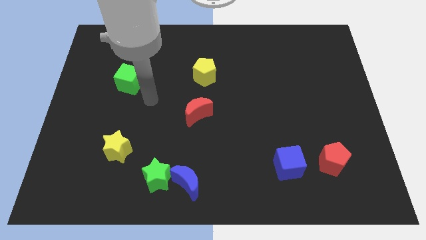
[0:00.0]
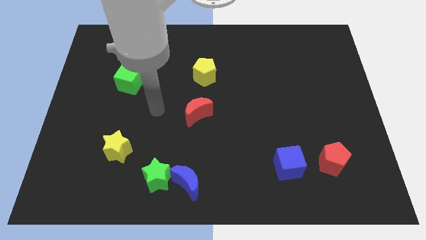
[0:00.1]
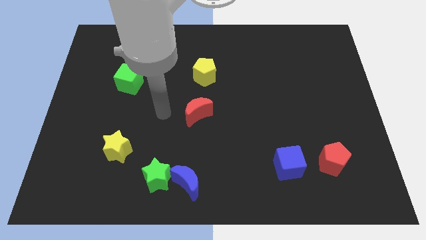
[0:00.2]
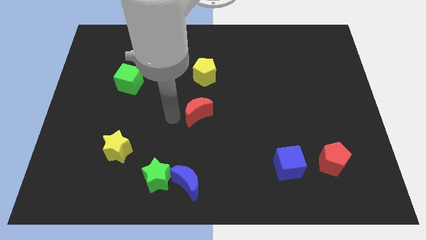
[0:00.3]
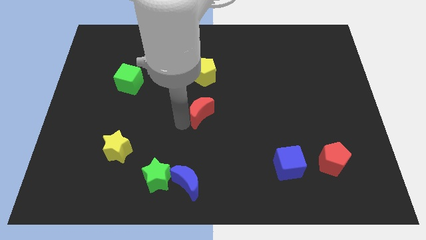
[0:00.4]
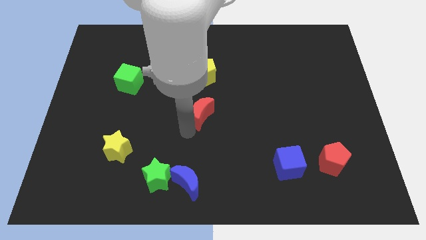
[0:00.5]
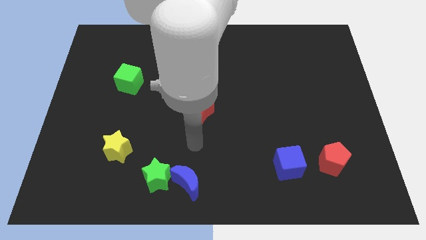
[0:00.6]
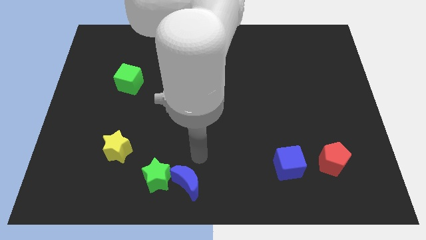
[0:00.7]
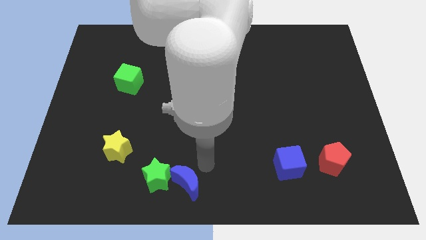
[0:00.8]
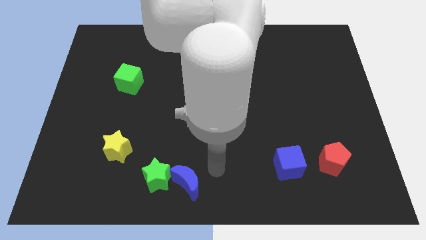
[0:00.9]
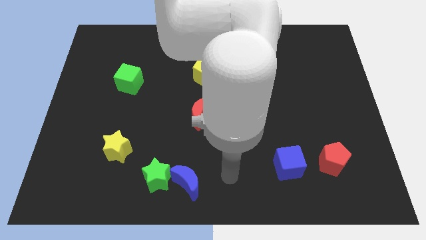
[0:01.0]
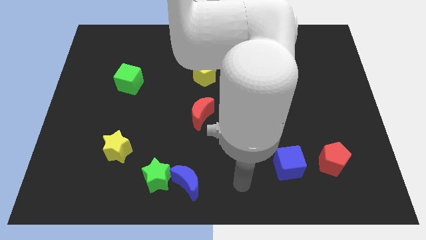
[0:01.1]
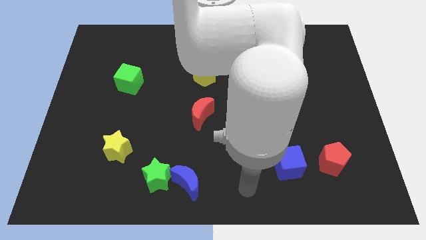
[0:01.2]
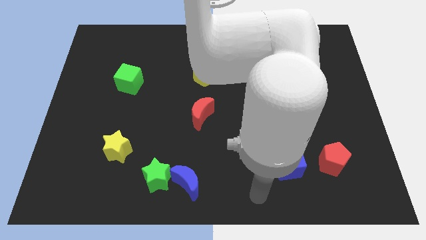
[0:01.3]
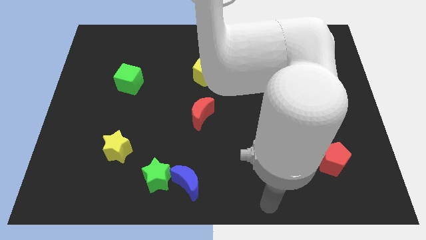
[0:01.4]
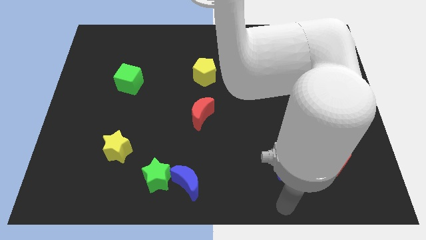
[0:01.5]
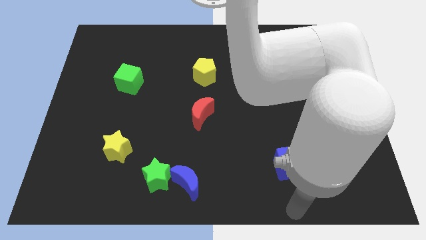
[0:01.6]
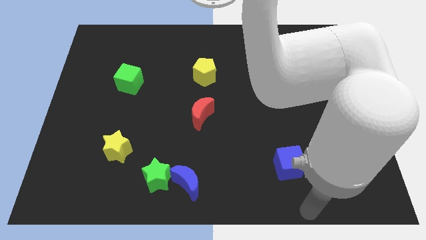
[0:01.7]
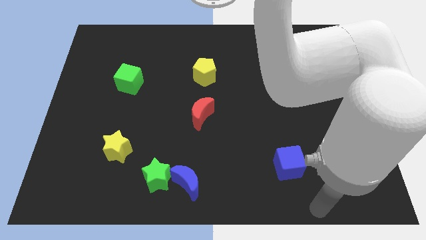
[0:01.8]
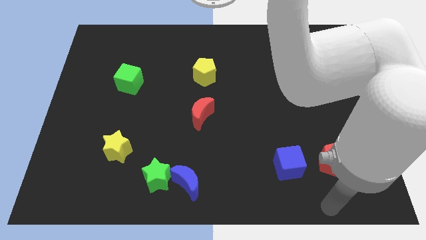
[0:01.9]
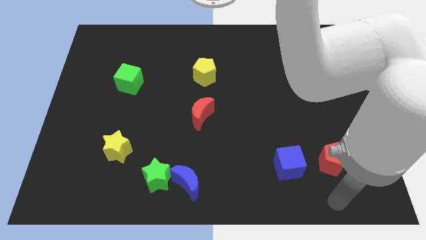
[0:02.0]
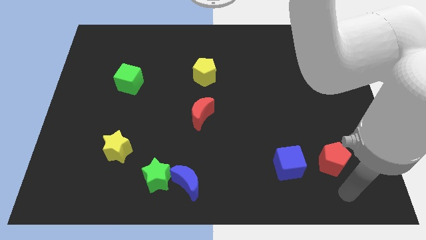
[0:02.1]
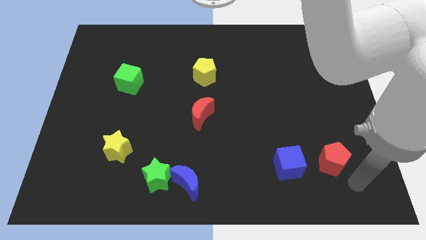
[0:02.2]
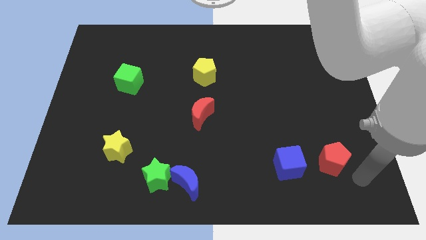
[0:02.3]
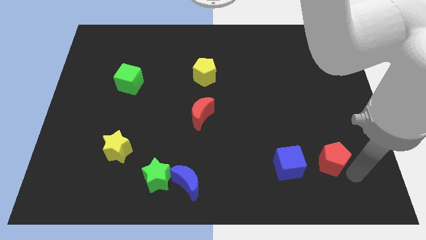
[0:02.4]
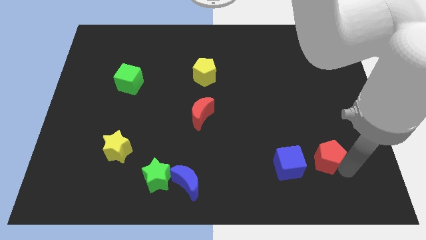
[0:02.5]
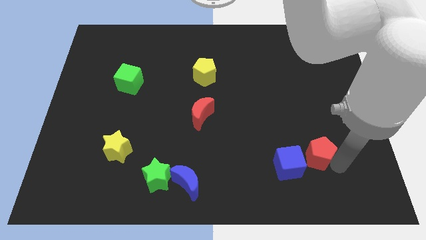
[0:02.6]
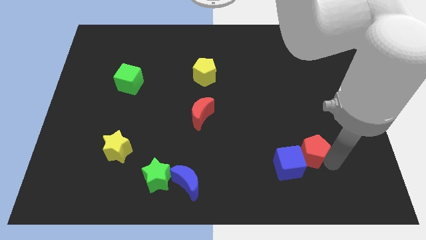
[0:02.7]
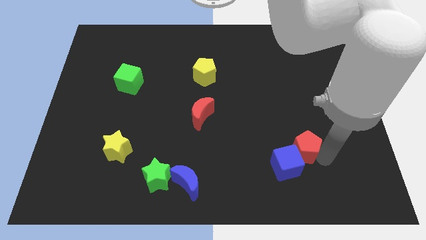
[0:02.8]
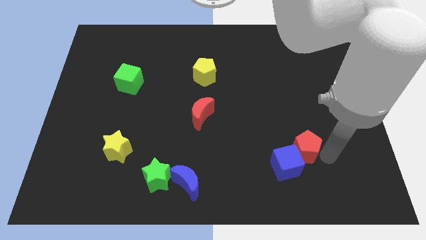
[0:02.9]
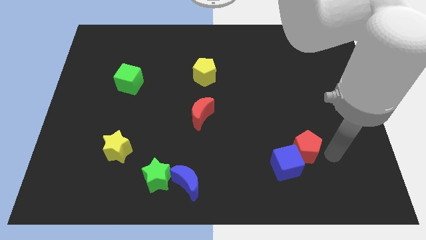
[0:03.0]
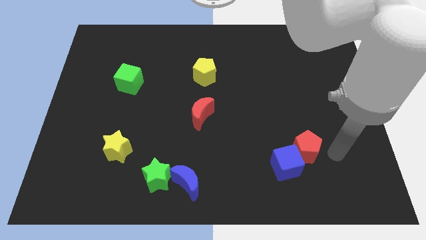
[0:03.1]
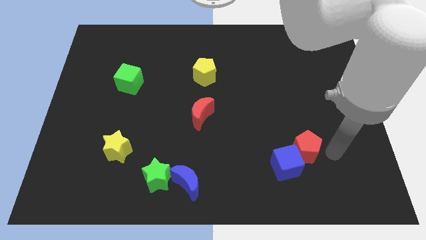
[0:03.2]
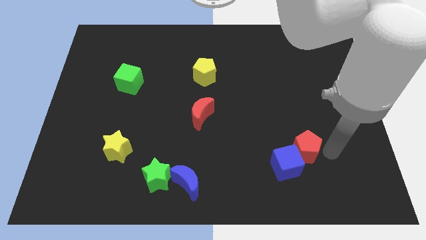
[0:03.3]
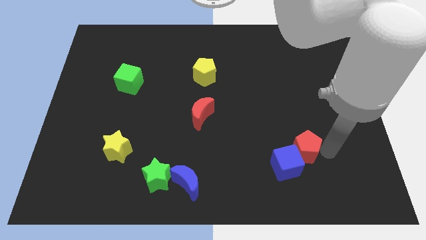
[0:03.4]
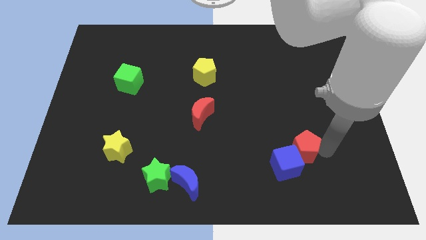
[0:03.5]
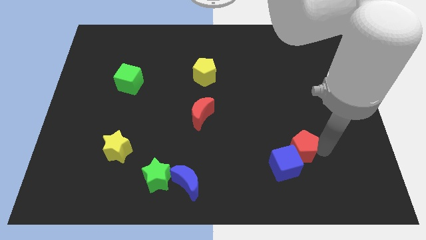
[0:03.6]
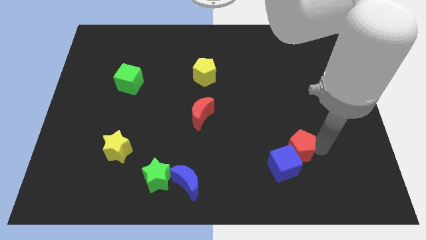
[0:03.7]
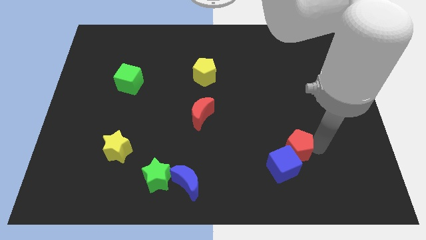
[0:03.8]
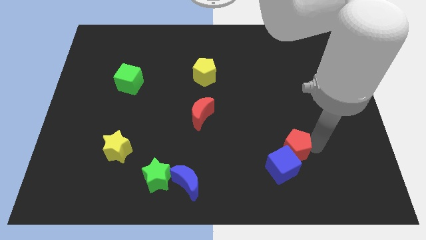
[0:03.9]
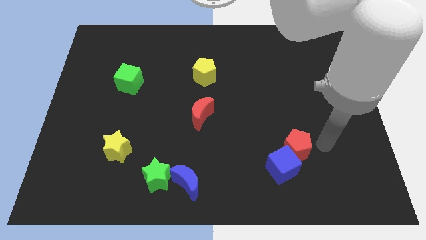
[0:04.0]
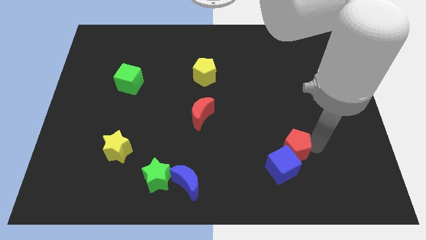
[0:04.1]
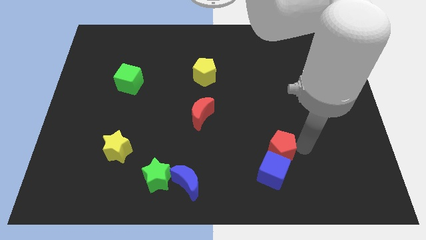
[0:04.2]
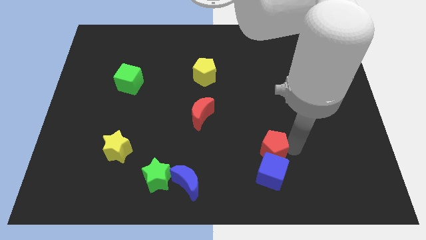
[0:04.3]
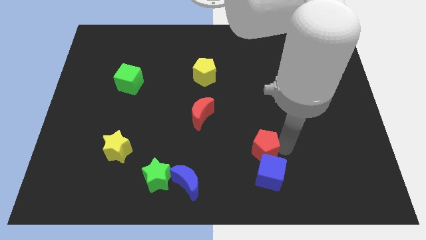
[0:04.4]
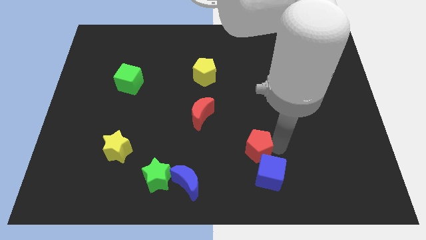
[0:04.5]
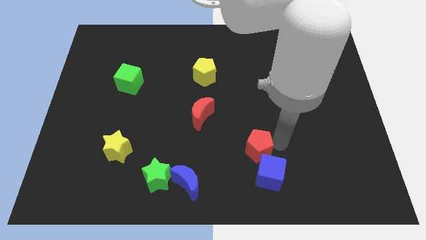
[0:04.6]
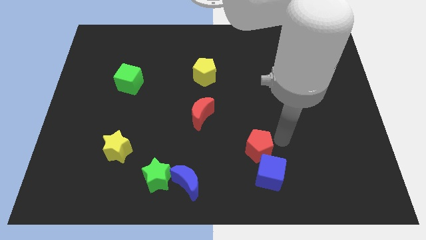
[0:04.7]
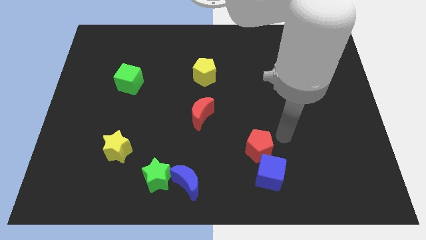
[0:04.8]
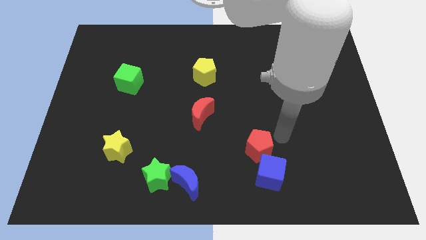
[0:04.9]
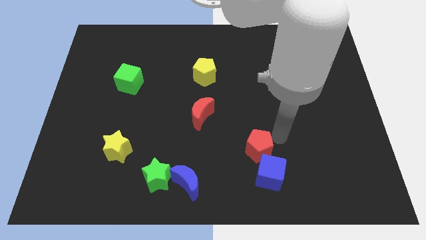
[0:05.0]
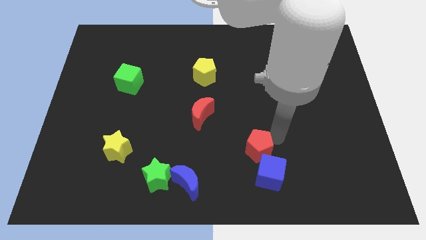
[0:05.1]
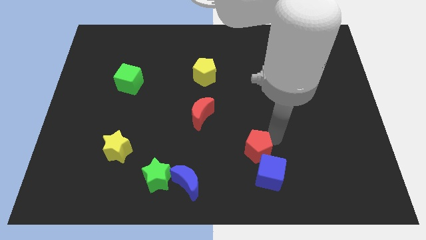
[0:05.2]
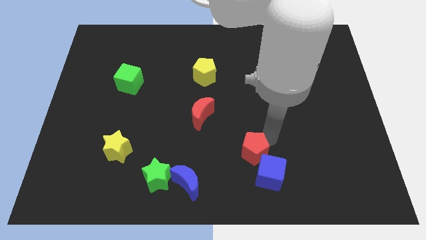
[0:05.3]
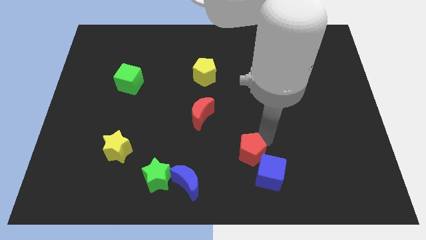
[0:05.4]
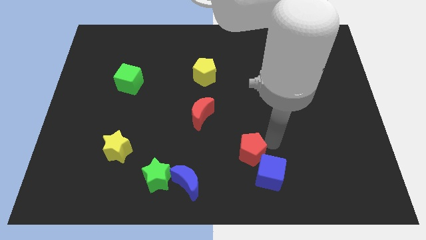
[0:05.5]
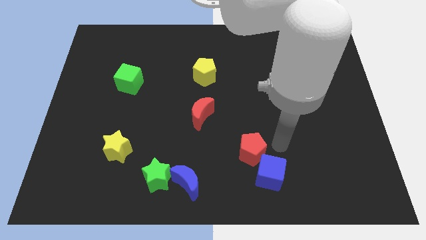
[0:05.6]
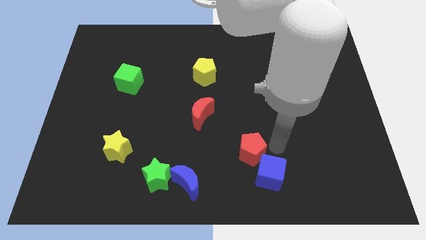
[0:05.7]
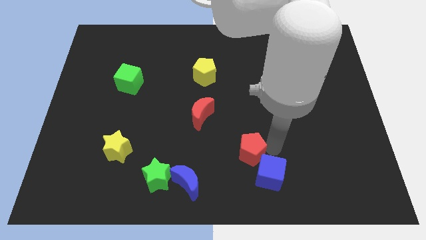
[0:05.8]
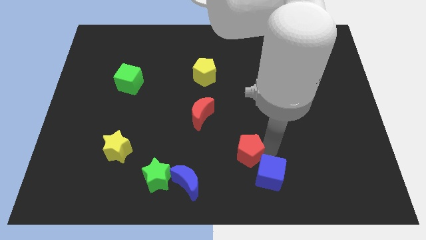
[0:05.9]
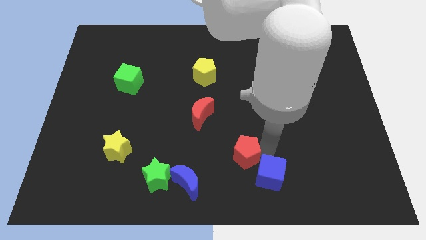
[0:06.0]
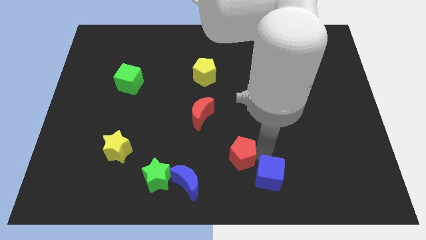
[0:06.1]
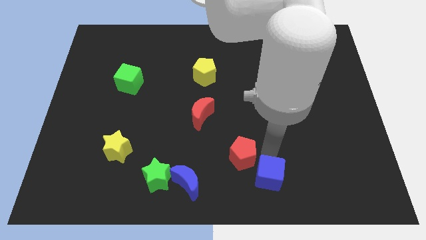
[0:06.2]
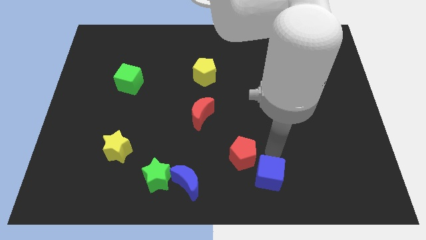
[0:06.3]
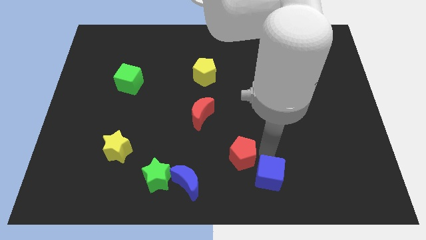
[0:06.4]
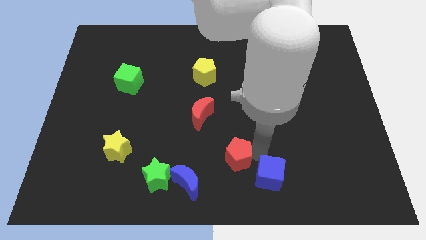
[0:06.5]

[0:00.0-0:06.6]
move the red pentagon left

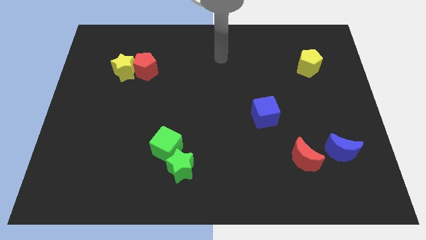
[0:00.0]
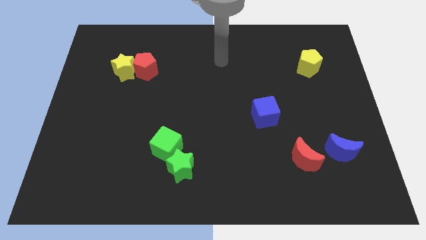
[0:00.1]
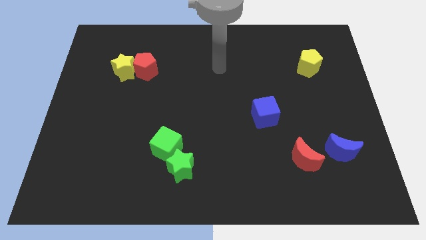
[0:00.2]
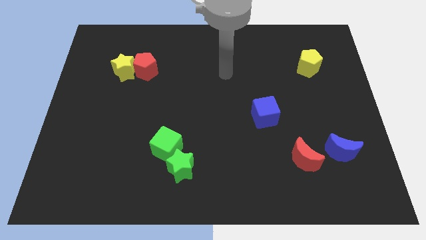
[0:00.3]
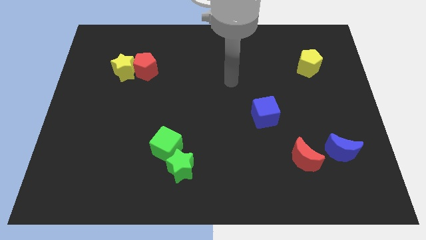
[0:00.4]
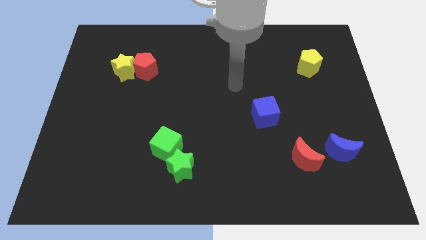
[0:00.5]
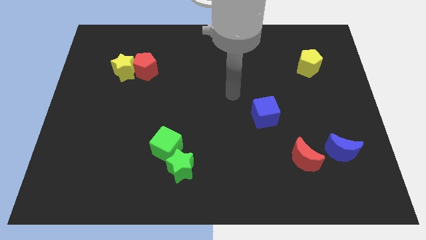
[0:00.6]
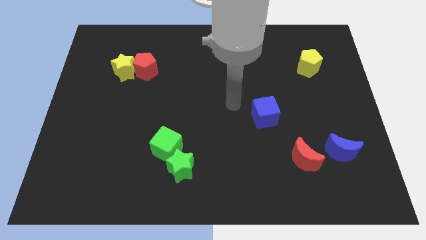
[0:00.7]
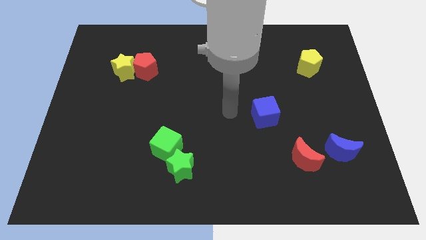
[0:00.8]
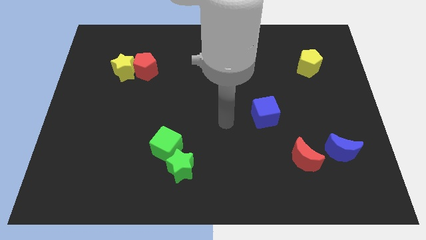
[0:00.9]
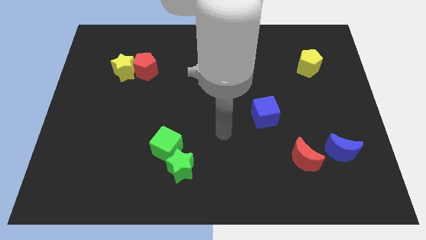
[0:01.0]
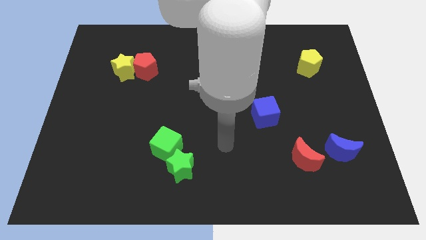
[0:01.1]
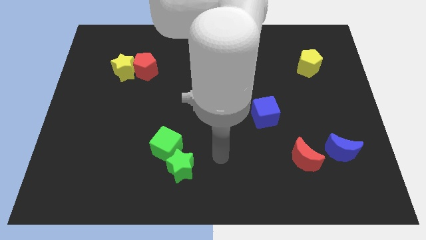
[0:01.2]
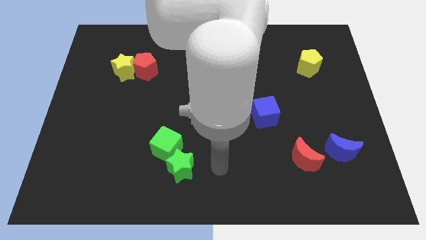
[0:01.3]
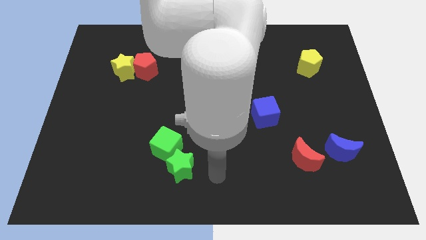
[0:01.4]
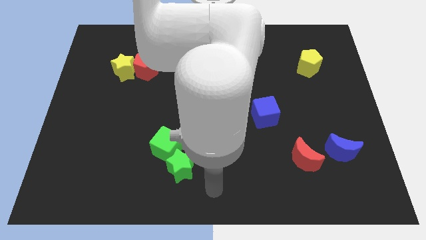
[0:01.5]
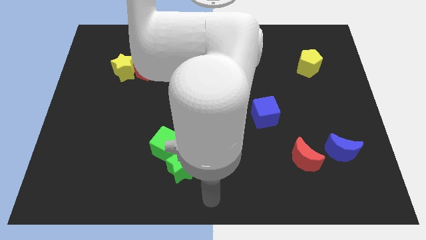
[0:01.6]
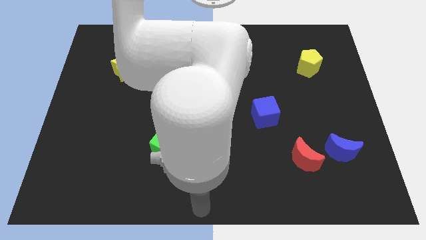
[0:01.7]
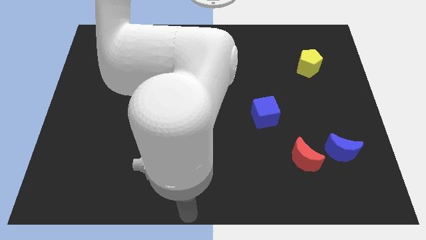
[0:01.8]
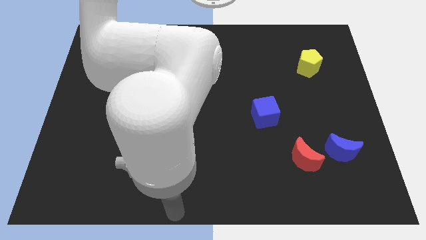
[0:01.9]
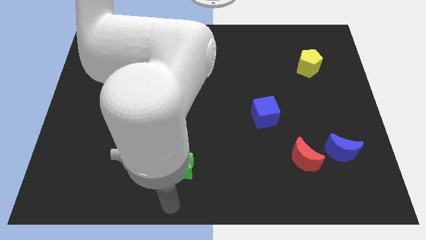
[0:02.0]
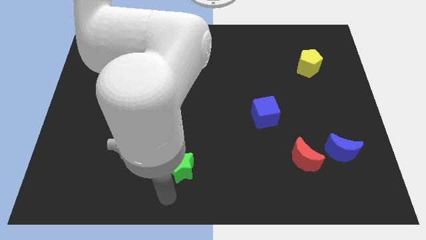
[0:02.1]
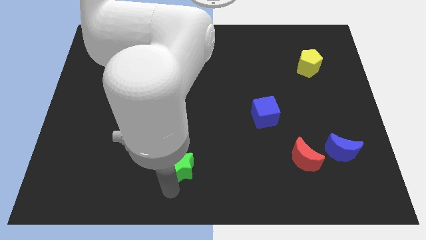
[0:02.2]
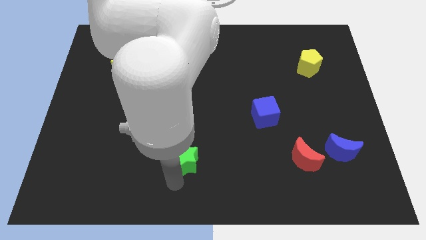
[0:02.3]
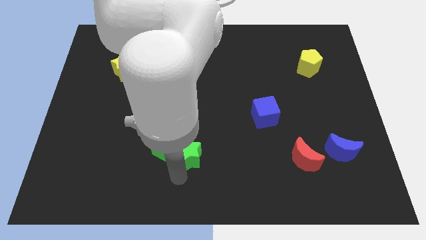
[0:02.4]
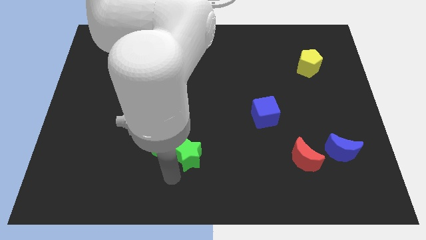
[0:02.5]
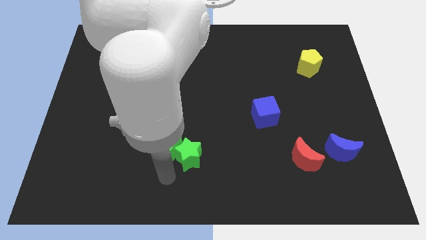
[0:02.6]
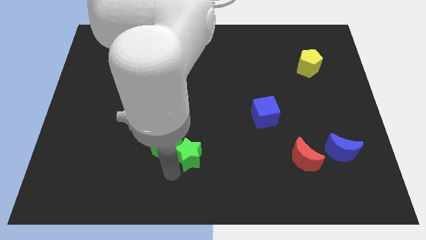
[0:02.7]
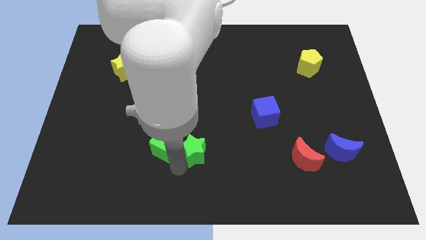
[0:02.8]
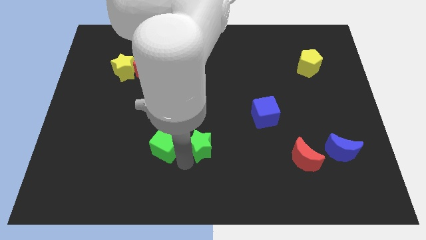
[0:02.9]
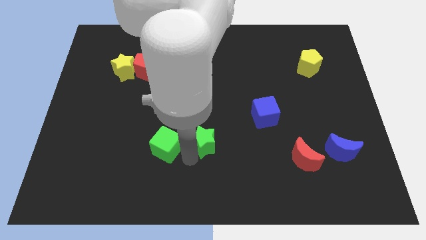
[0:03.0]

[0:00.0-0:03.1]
push the green star diagonally up and right somewhat
